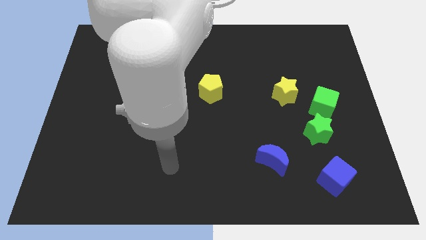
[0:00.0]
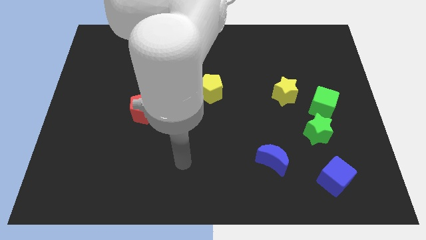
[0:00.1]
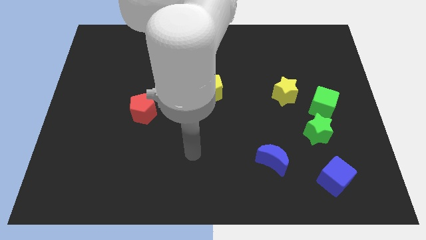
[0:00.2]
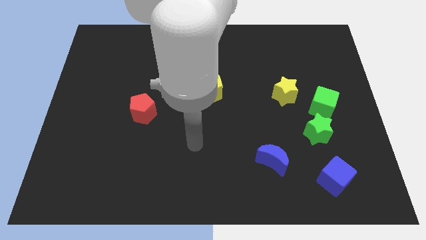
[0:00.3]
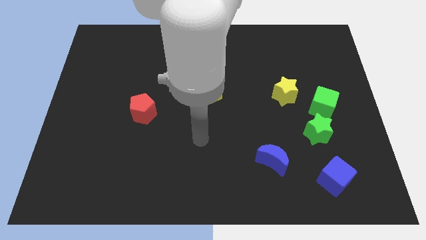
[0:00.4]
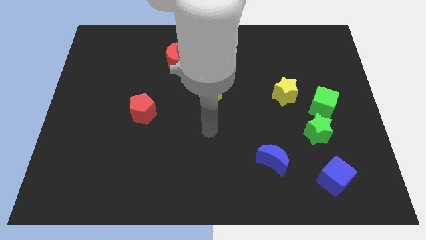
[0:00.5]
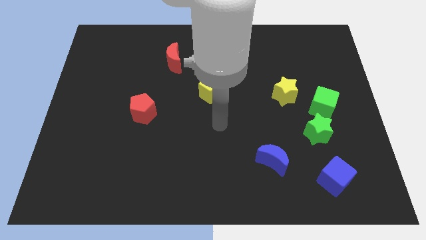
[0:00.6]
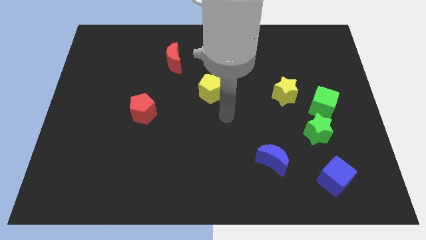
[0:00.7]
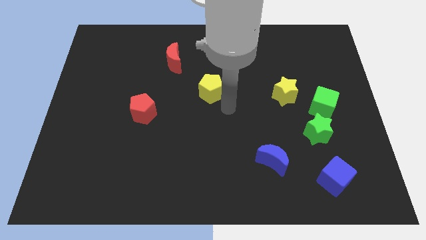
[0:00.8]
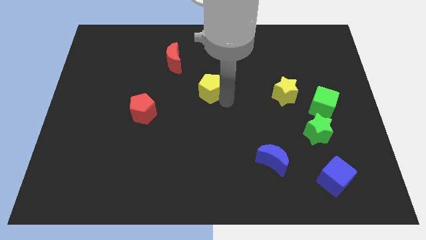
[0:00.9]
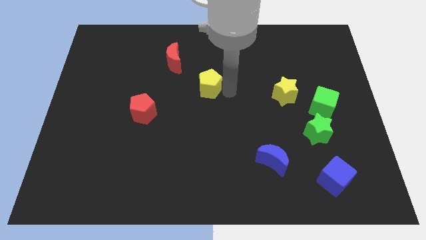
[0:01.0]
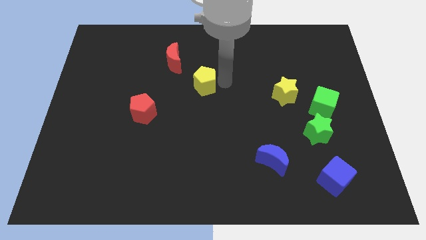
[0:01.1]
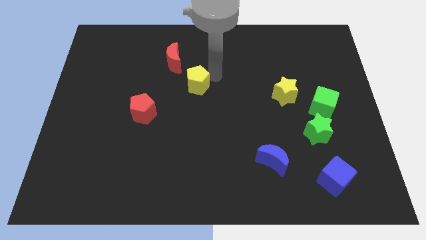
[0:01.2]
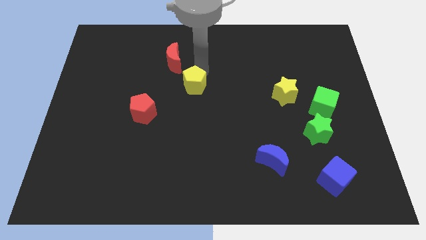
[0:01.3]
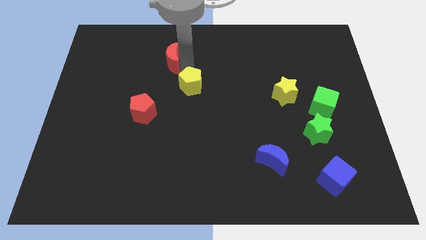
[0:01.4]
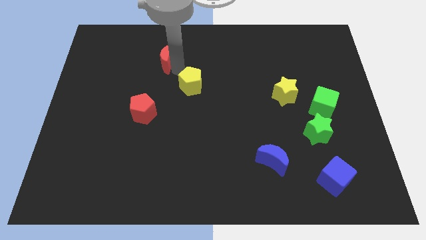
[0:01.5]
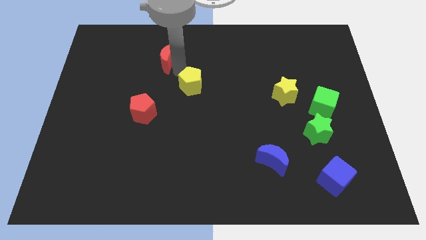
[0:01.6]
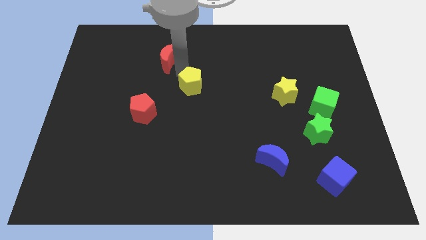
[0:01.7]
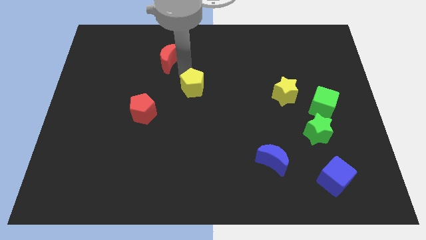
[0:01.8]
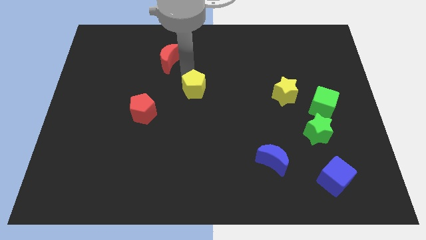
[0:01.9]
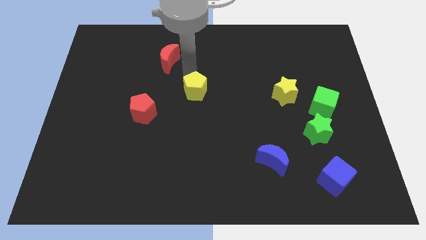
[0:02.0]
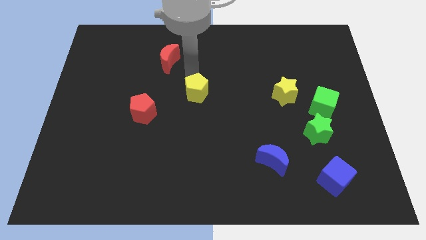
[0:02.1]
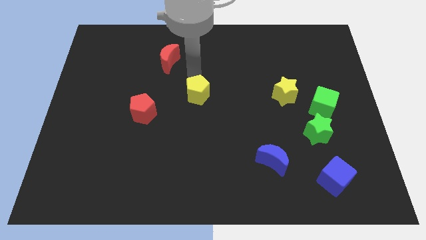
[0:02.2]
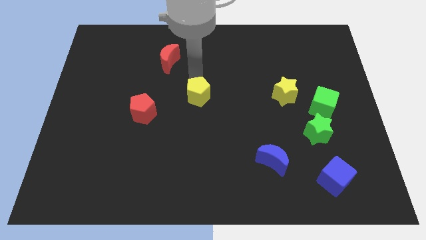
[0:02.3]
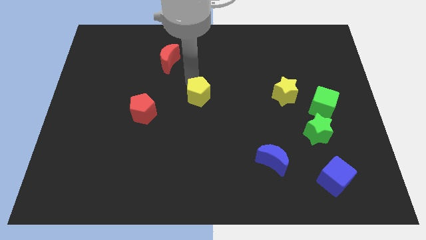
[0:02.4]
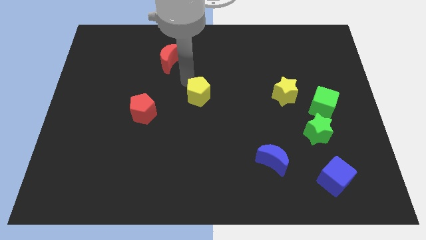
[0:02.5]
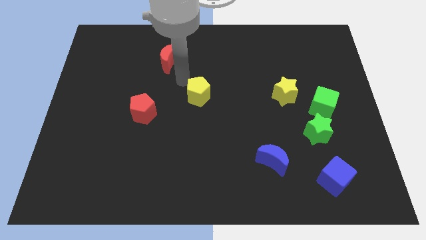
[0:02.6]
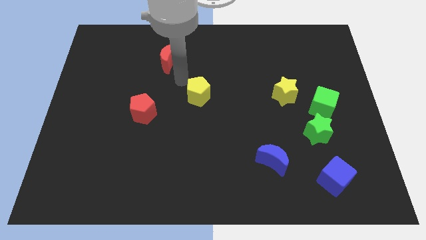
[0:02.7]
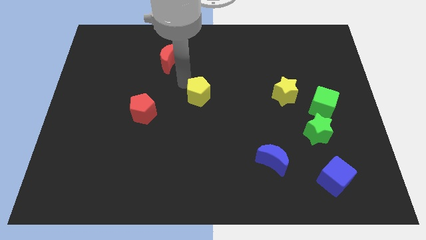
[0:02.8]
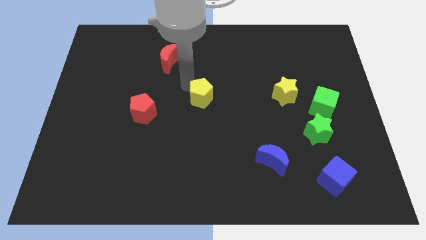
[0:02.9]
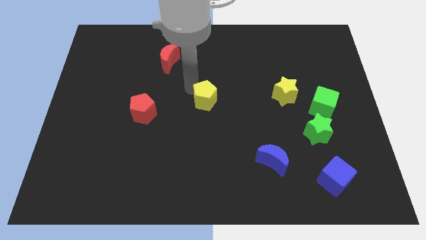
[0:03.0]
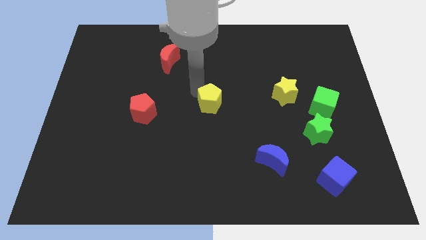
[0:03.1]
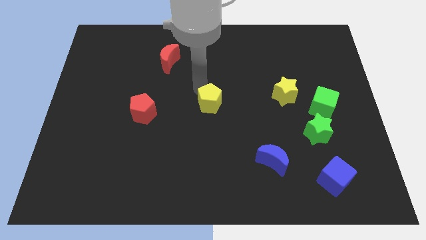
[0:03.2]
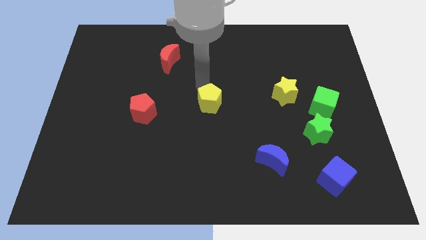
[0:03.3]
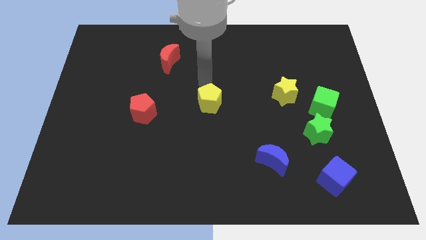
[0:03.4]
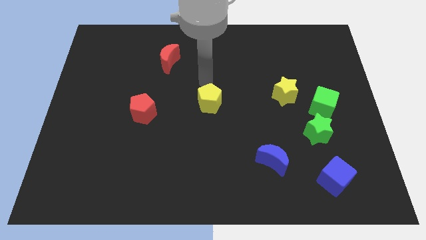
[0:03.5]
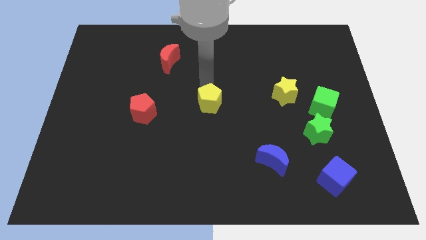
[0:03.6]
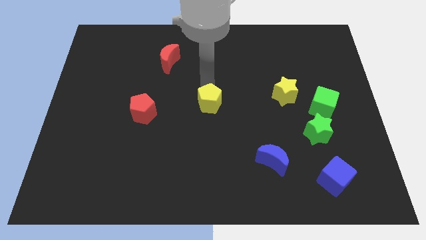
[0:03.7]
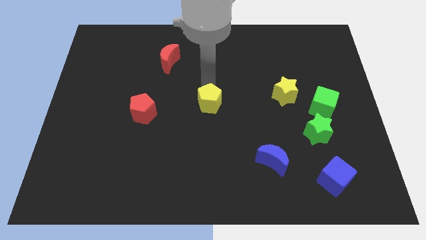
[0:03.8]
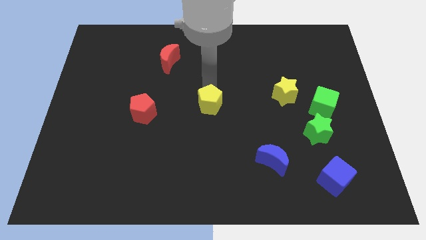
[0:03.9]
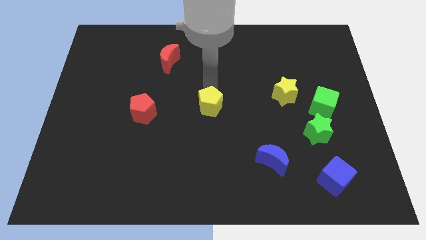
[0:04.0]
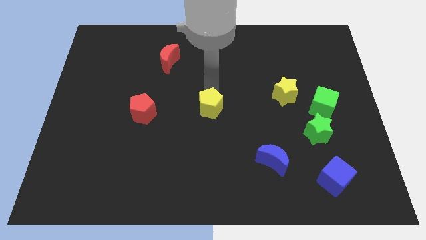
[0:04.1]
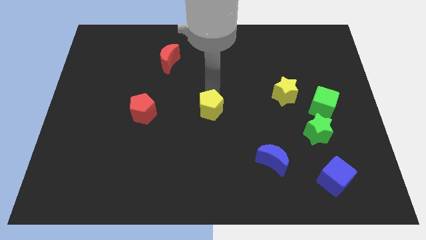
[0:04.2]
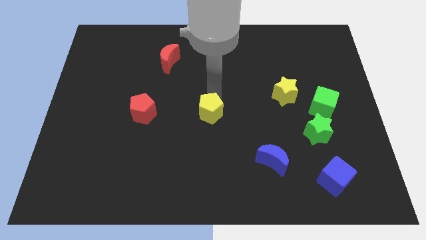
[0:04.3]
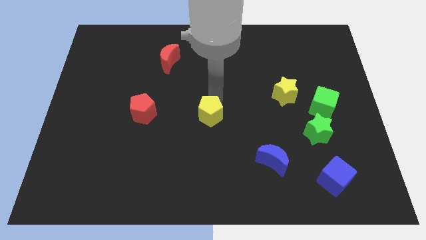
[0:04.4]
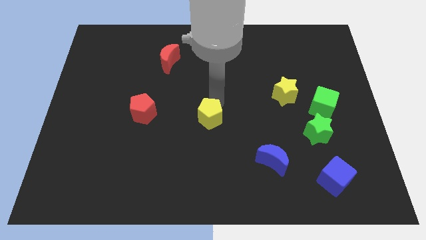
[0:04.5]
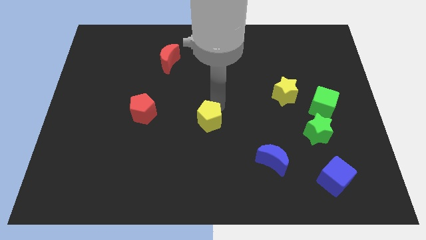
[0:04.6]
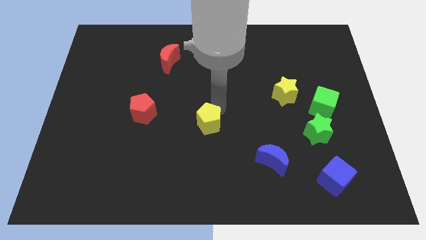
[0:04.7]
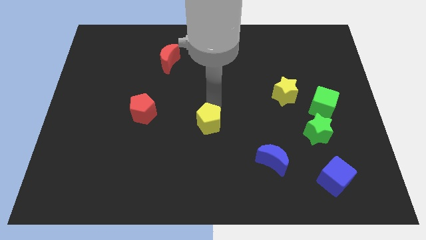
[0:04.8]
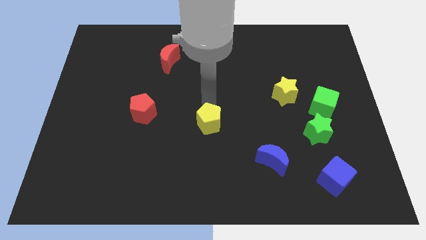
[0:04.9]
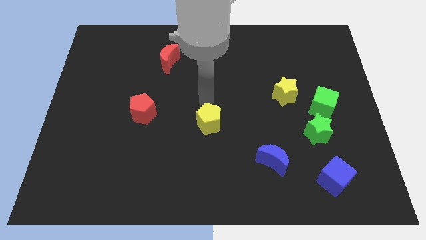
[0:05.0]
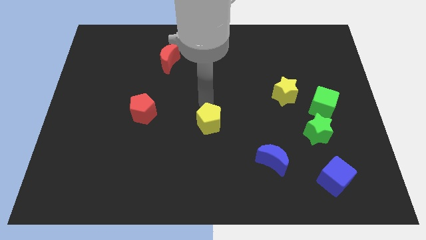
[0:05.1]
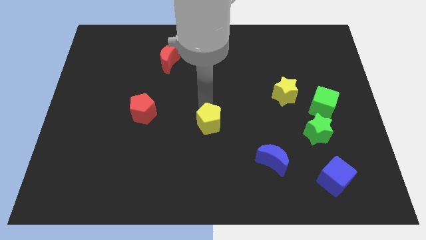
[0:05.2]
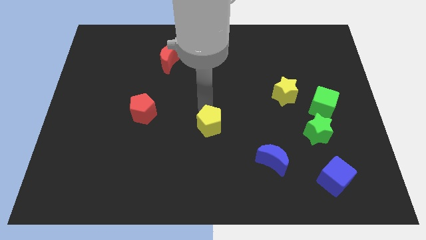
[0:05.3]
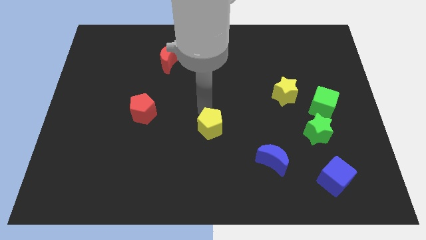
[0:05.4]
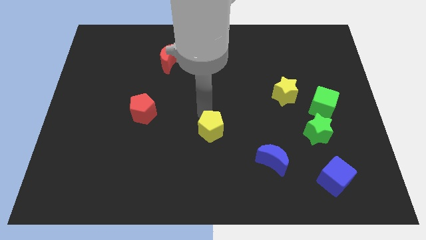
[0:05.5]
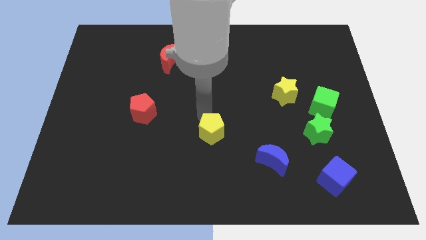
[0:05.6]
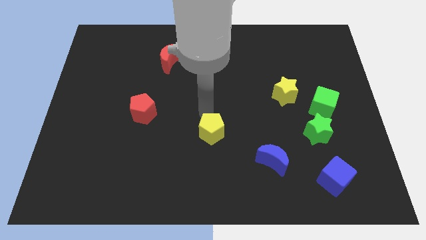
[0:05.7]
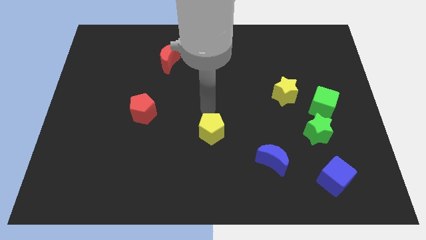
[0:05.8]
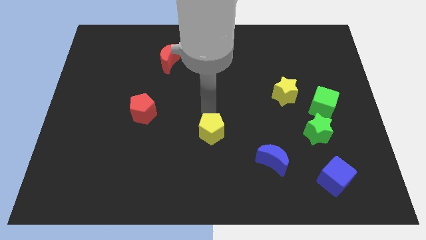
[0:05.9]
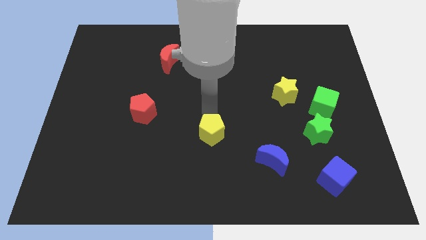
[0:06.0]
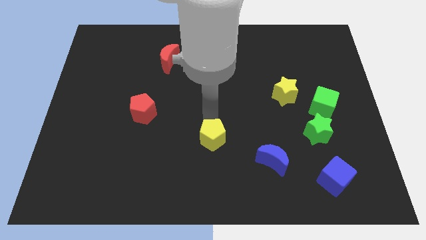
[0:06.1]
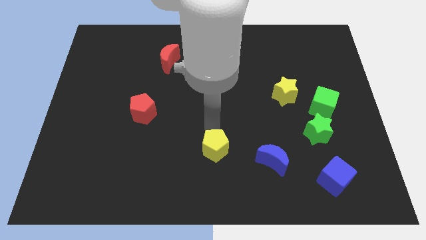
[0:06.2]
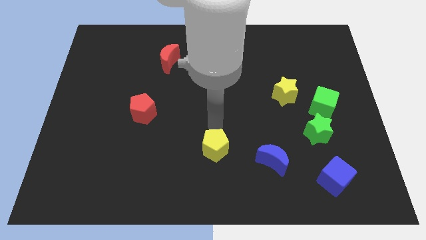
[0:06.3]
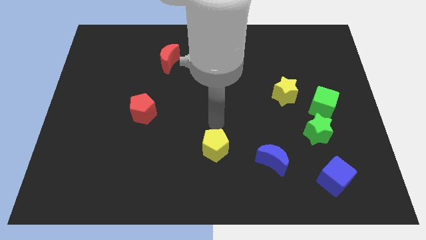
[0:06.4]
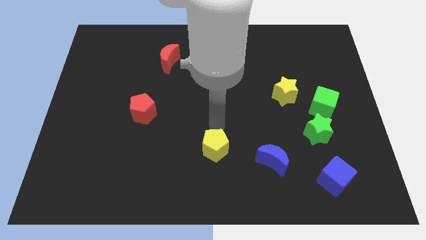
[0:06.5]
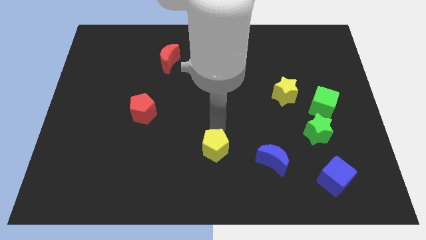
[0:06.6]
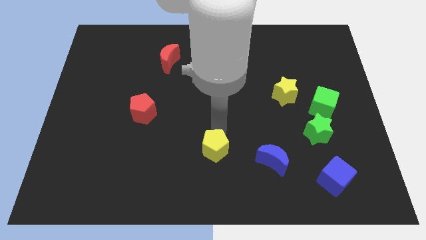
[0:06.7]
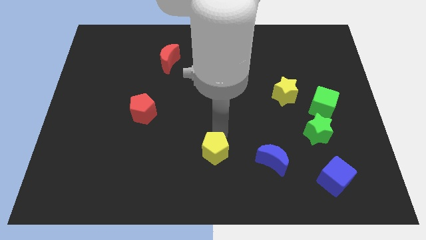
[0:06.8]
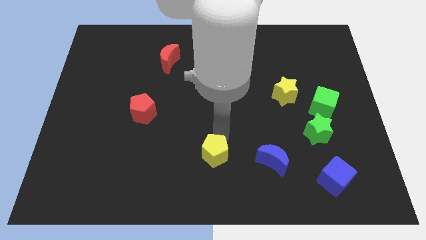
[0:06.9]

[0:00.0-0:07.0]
slide the yellow pentagon to the bottom
